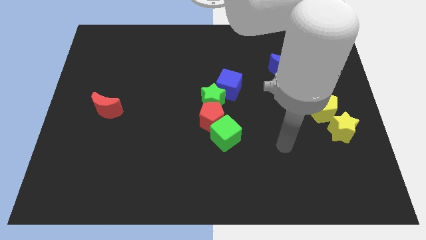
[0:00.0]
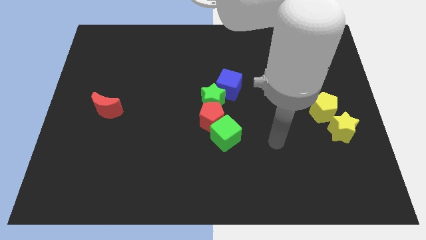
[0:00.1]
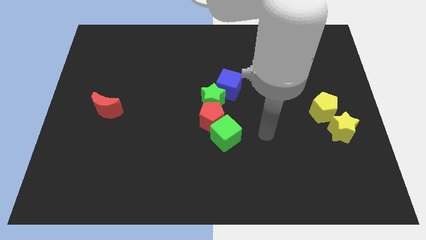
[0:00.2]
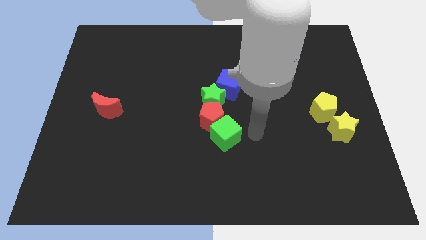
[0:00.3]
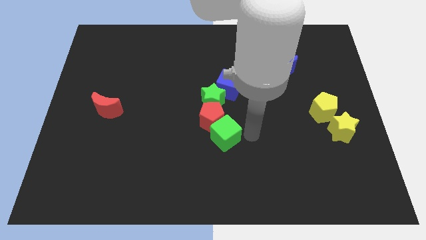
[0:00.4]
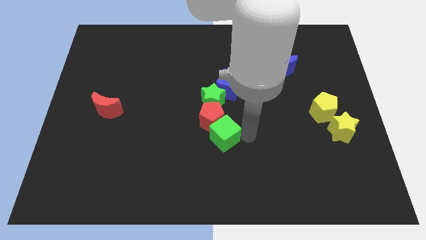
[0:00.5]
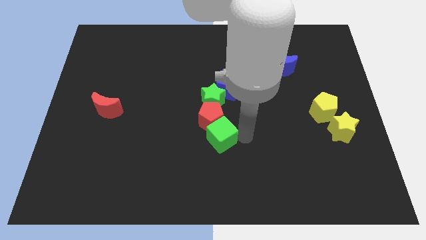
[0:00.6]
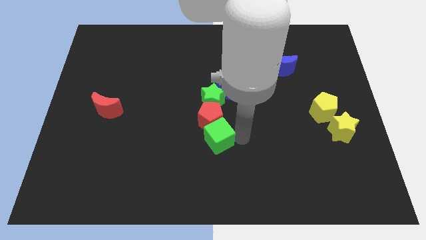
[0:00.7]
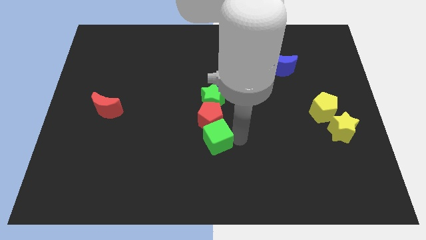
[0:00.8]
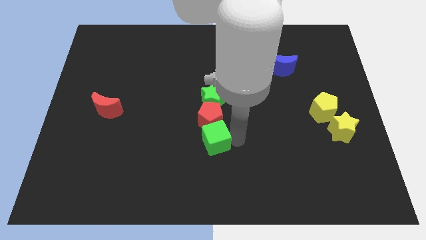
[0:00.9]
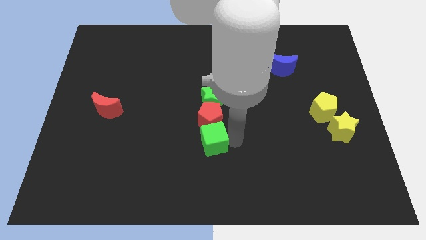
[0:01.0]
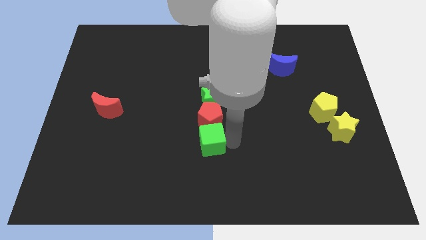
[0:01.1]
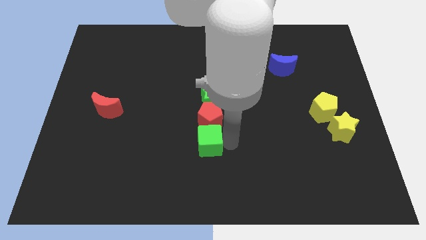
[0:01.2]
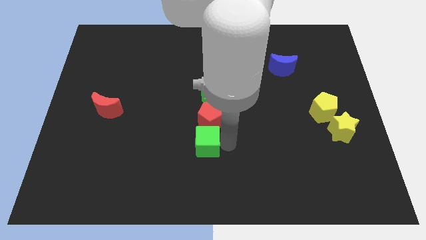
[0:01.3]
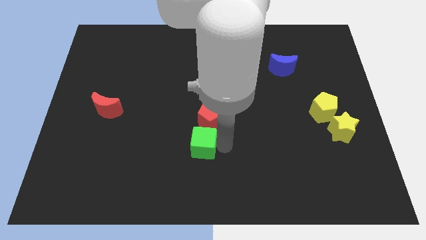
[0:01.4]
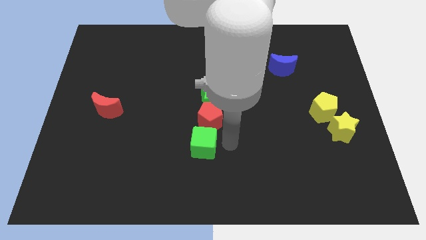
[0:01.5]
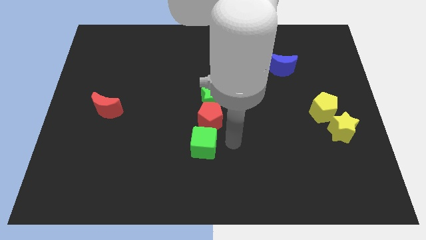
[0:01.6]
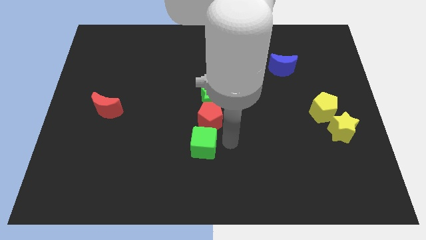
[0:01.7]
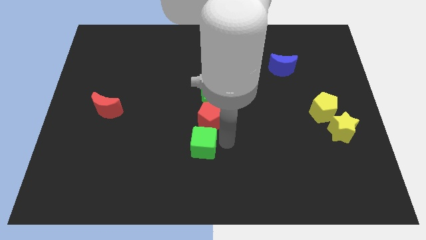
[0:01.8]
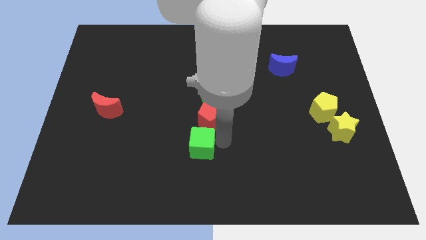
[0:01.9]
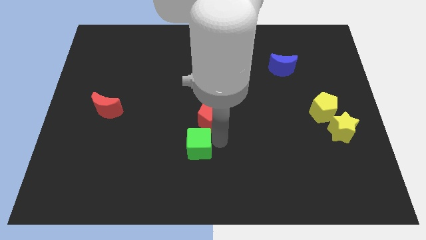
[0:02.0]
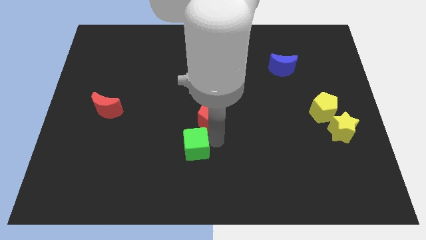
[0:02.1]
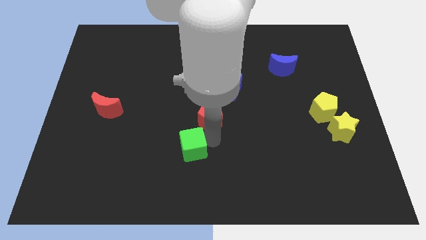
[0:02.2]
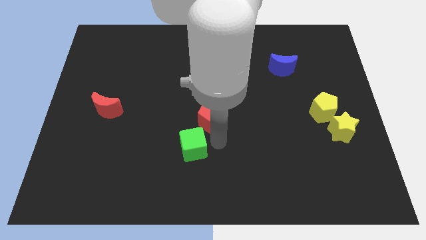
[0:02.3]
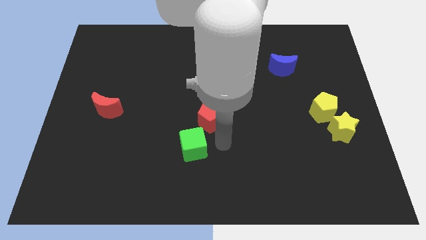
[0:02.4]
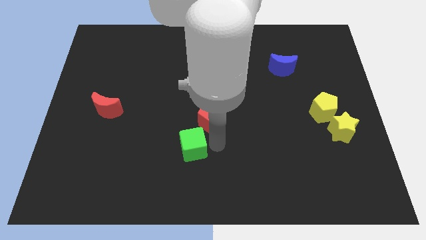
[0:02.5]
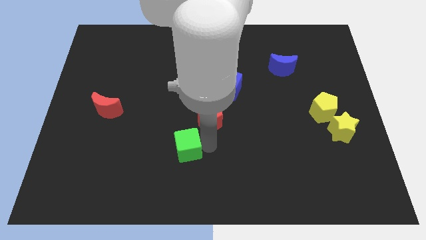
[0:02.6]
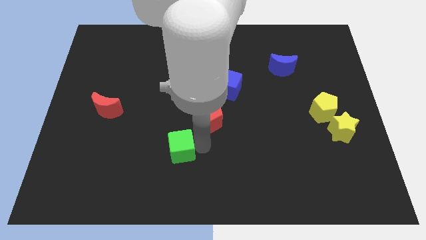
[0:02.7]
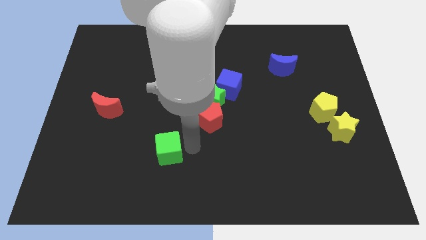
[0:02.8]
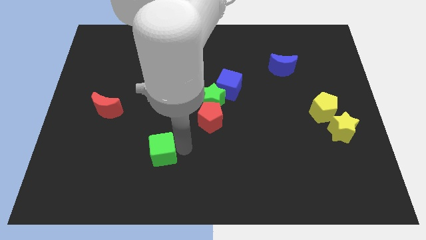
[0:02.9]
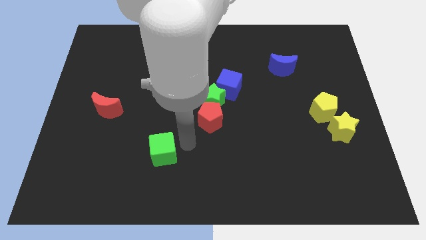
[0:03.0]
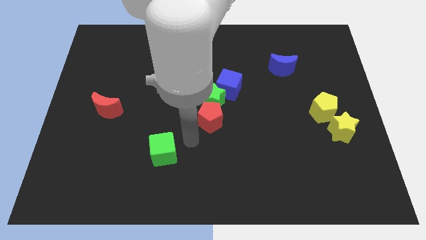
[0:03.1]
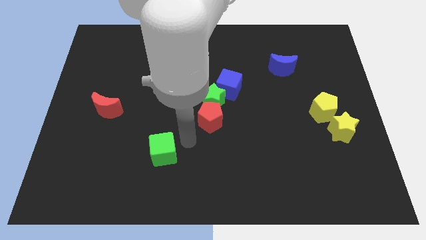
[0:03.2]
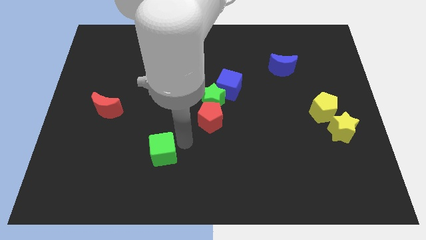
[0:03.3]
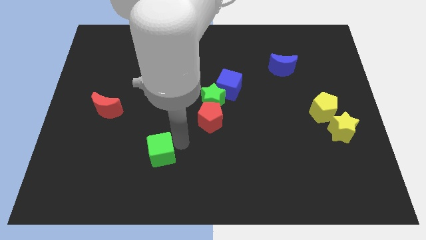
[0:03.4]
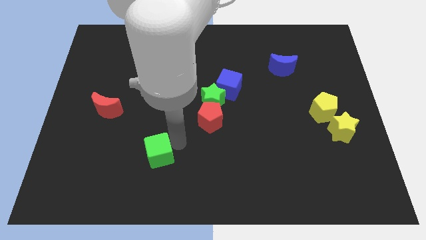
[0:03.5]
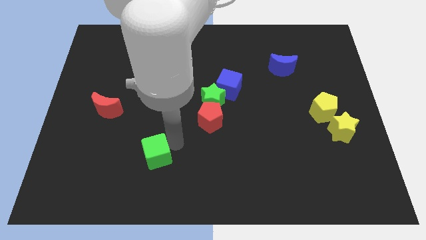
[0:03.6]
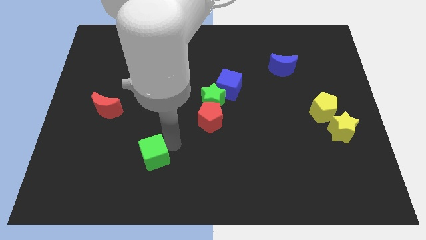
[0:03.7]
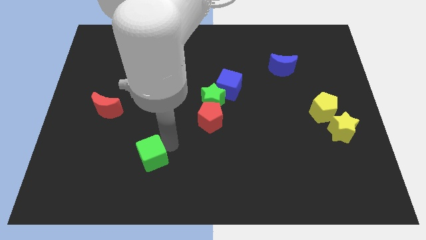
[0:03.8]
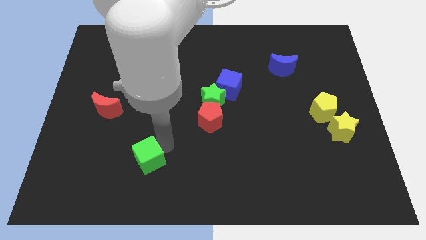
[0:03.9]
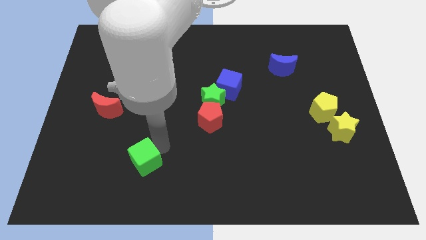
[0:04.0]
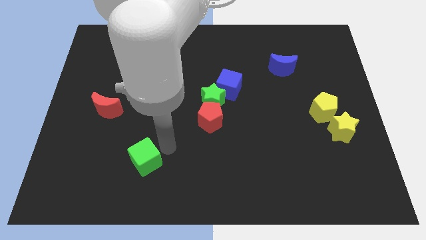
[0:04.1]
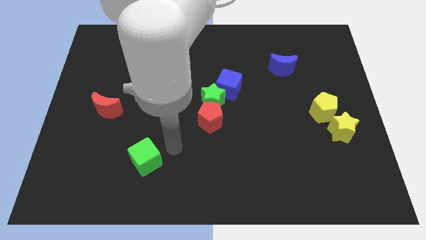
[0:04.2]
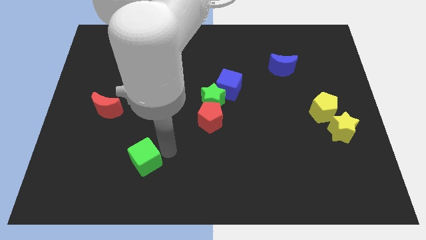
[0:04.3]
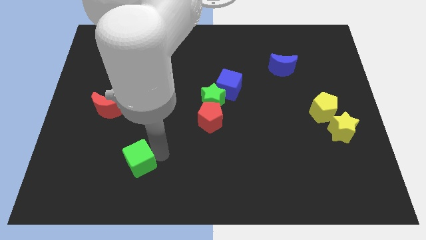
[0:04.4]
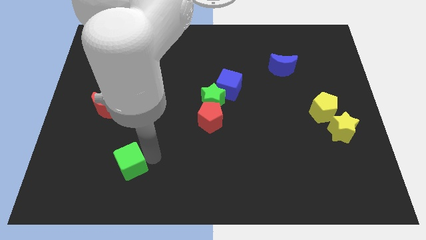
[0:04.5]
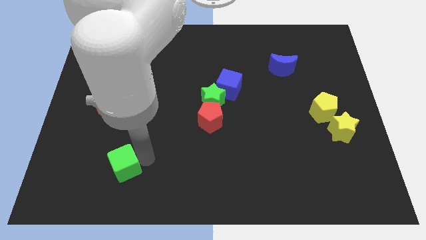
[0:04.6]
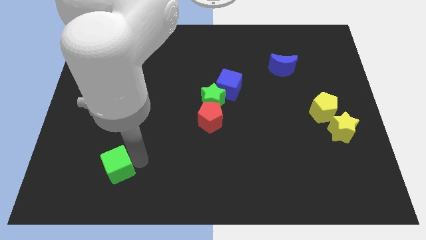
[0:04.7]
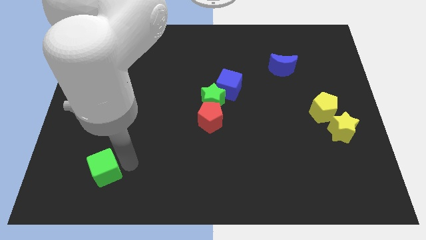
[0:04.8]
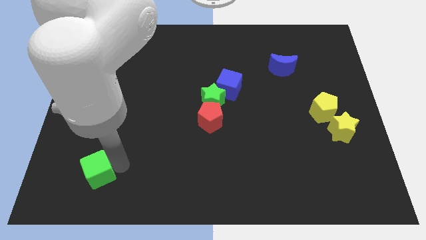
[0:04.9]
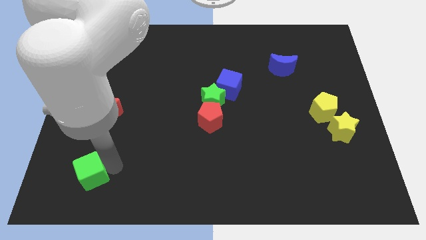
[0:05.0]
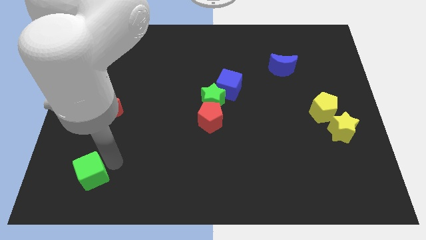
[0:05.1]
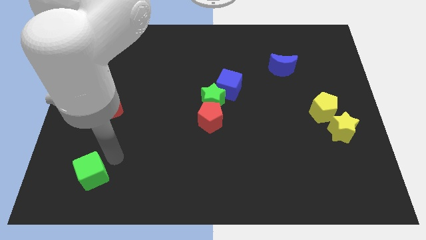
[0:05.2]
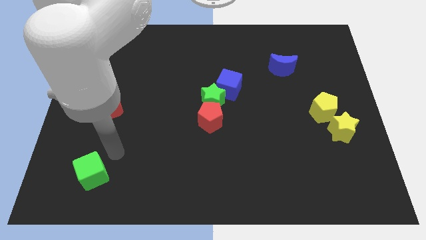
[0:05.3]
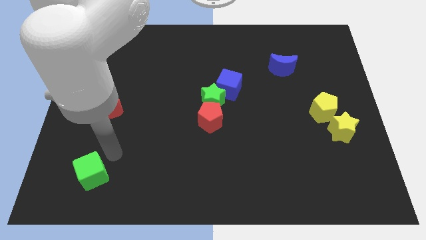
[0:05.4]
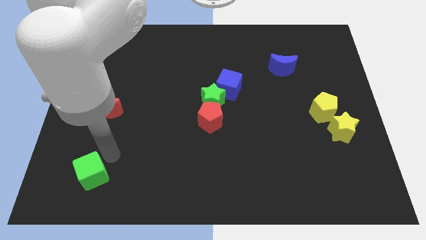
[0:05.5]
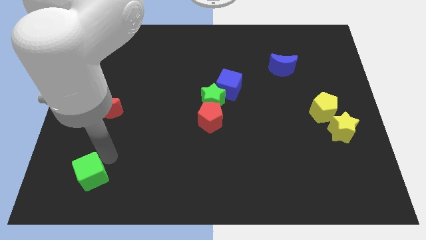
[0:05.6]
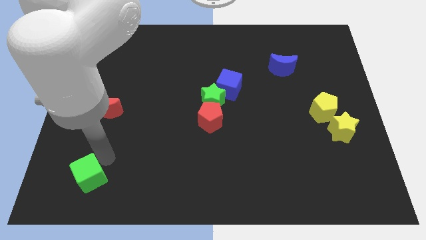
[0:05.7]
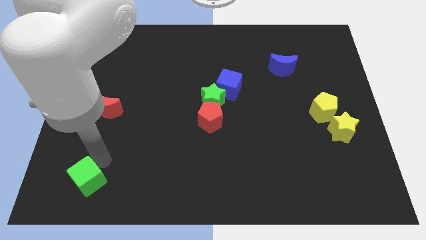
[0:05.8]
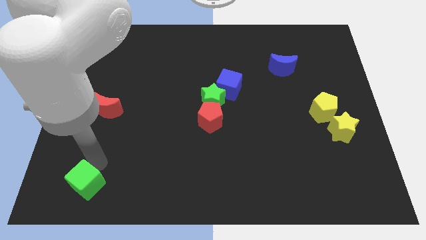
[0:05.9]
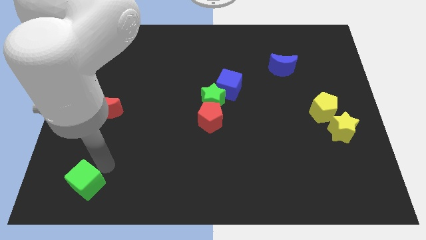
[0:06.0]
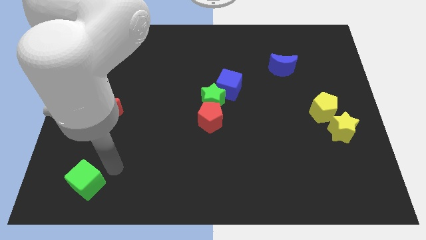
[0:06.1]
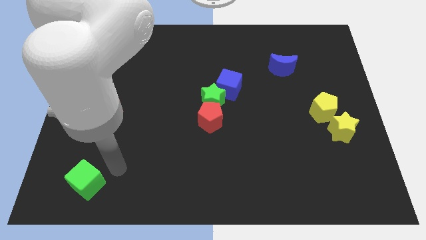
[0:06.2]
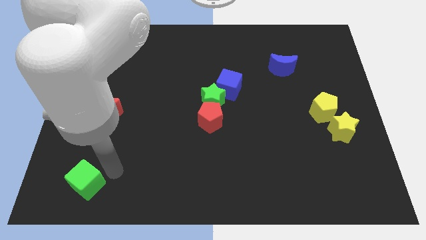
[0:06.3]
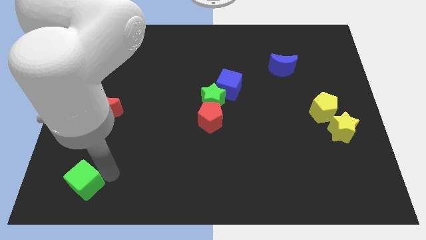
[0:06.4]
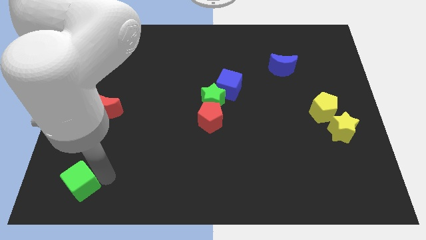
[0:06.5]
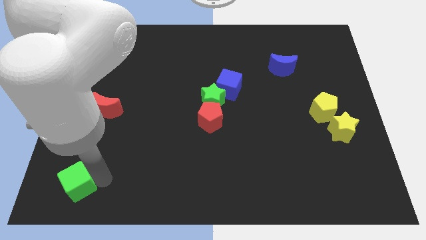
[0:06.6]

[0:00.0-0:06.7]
slide the green cube to the bottom left
